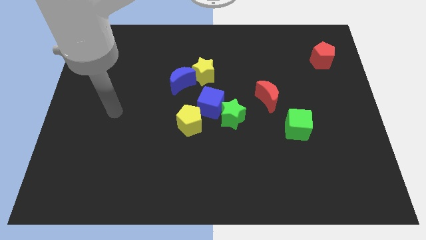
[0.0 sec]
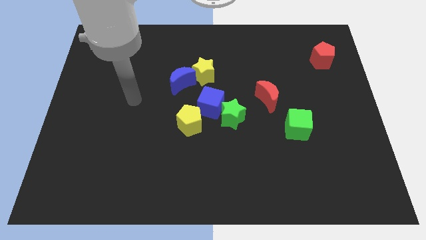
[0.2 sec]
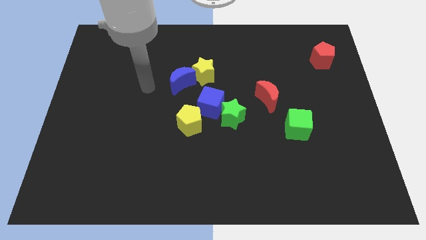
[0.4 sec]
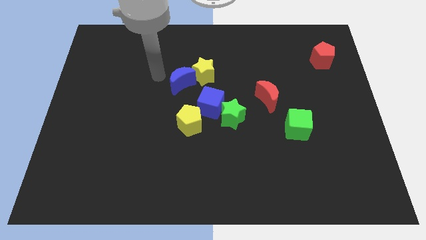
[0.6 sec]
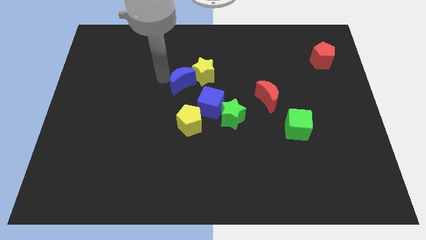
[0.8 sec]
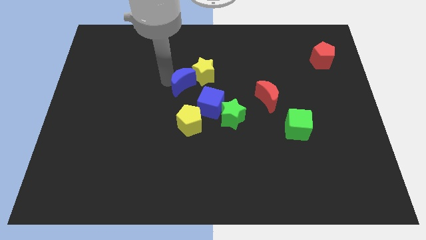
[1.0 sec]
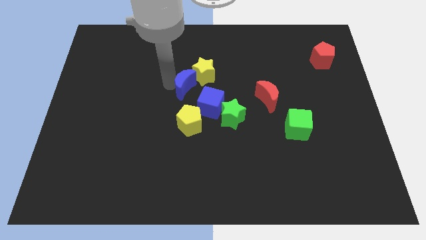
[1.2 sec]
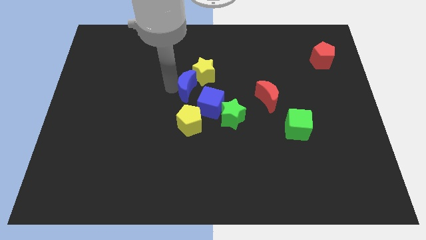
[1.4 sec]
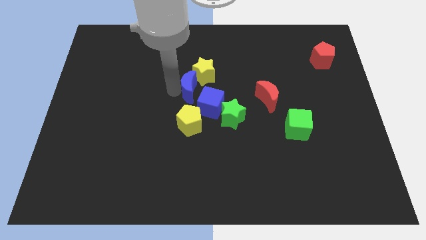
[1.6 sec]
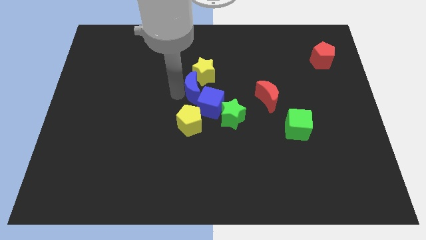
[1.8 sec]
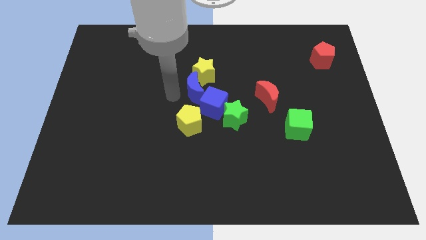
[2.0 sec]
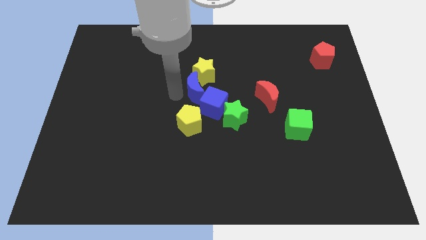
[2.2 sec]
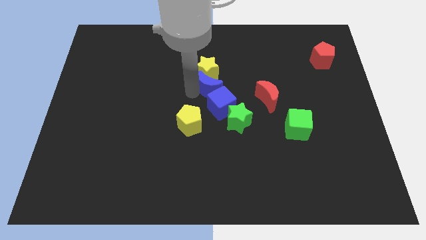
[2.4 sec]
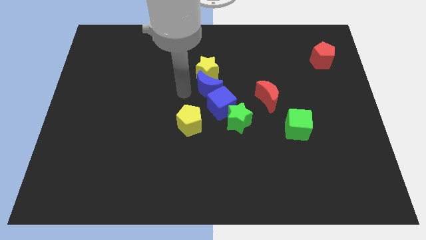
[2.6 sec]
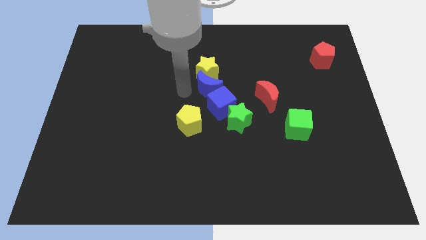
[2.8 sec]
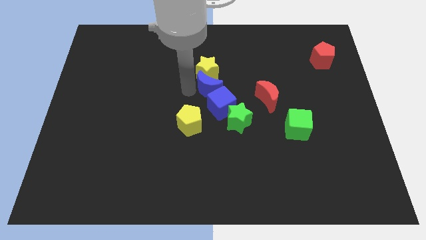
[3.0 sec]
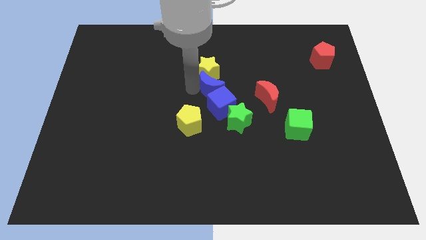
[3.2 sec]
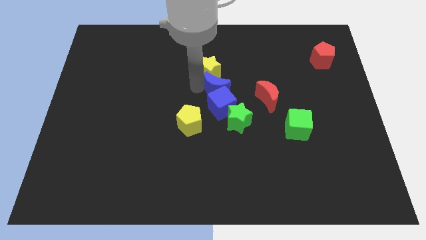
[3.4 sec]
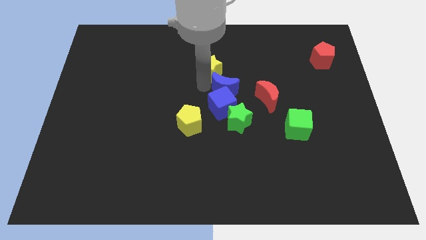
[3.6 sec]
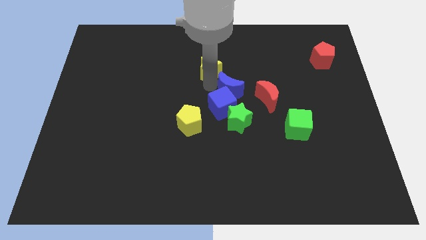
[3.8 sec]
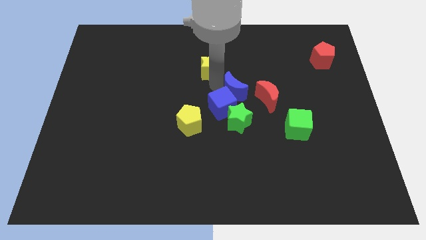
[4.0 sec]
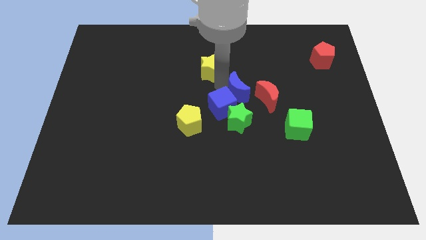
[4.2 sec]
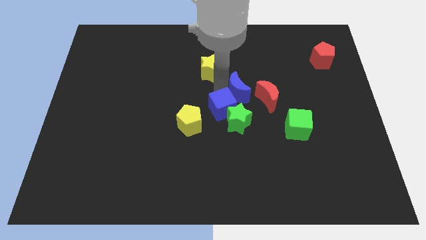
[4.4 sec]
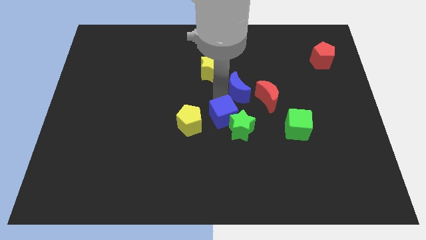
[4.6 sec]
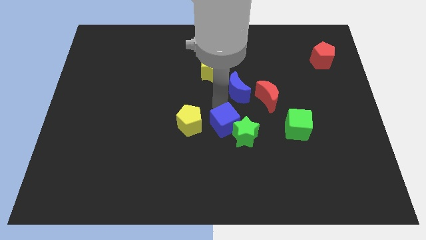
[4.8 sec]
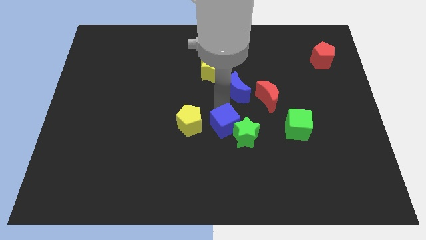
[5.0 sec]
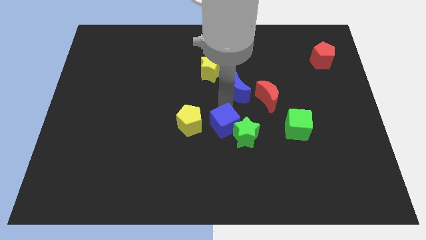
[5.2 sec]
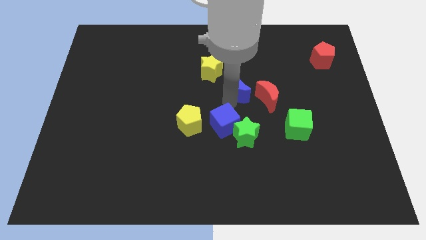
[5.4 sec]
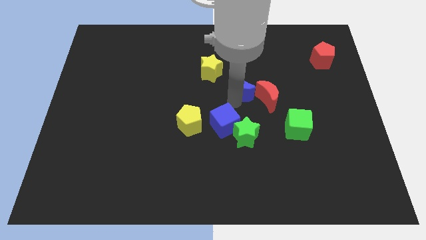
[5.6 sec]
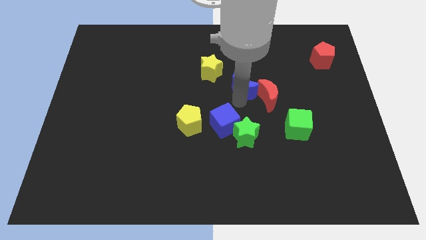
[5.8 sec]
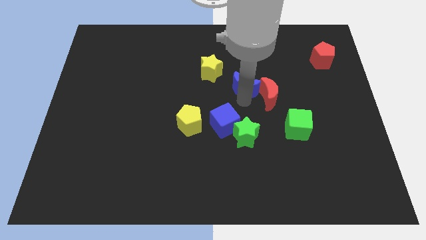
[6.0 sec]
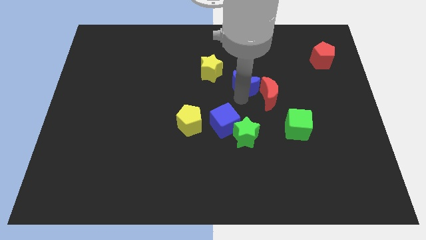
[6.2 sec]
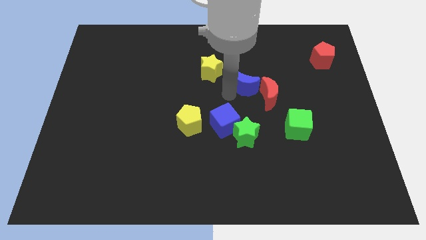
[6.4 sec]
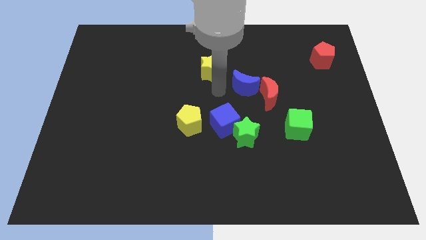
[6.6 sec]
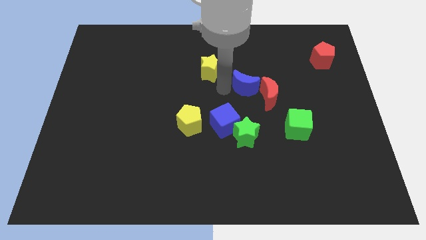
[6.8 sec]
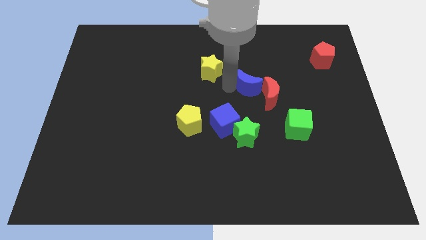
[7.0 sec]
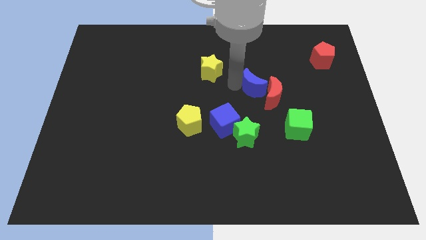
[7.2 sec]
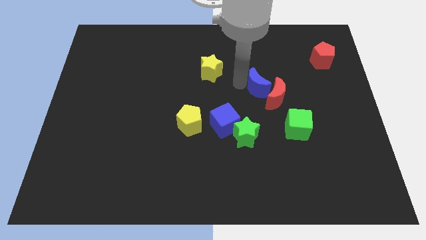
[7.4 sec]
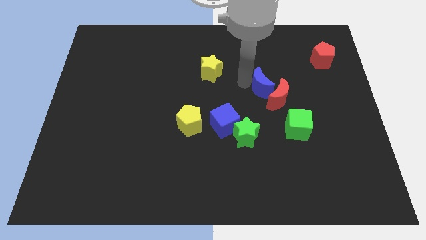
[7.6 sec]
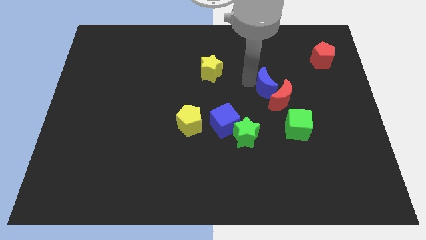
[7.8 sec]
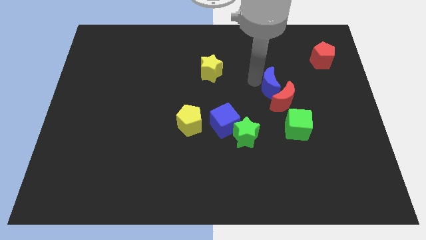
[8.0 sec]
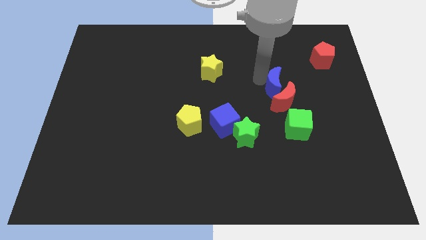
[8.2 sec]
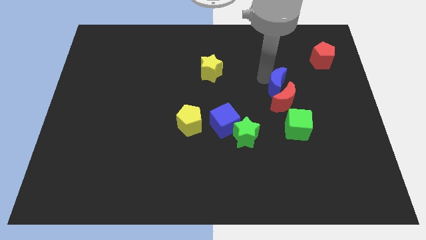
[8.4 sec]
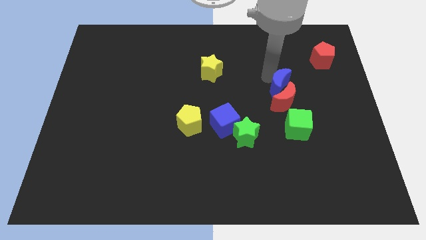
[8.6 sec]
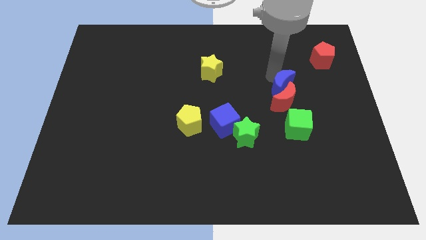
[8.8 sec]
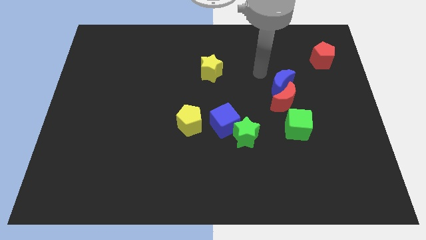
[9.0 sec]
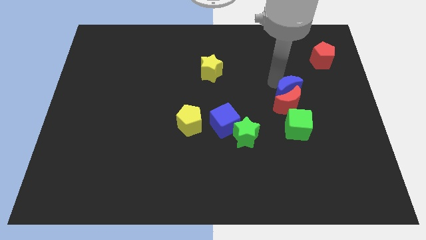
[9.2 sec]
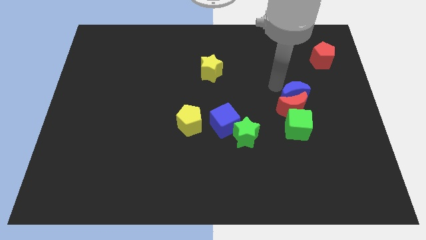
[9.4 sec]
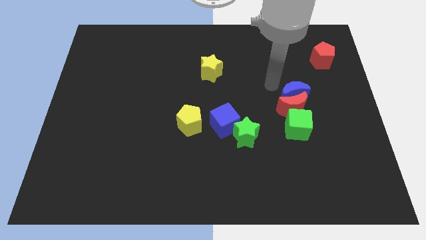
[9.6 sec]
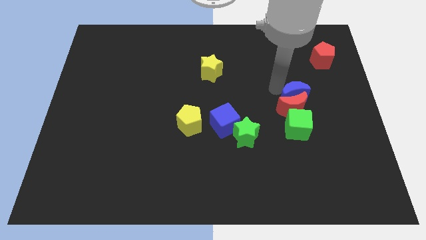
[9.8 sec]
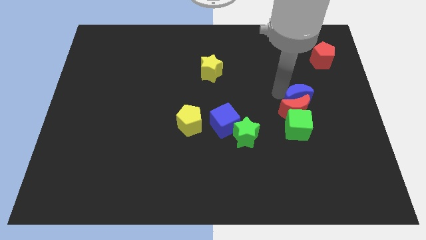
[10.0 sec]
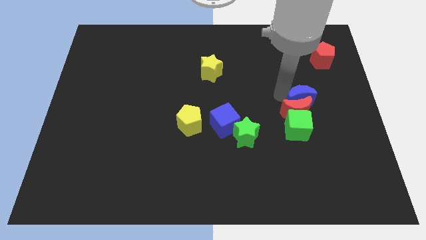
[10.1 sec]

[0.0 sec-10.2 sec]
put the blue moon to the top right of the green cube

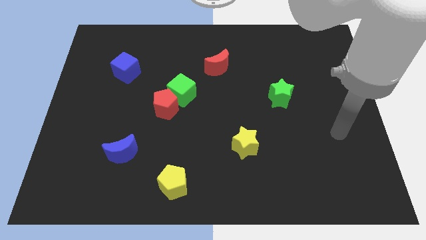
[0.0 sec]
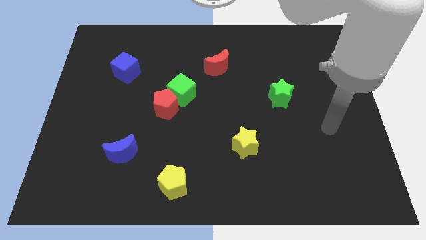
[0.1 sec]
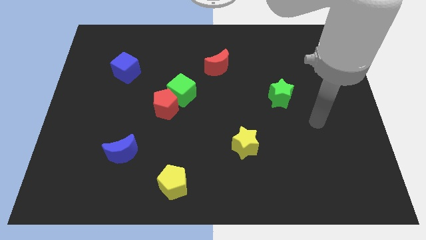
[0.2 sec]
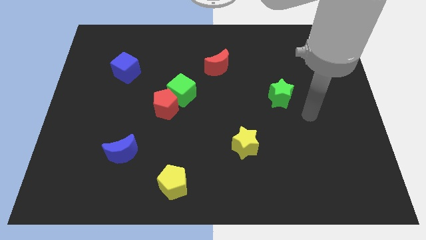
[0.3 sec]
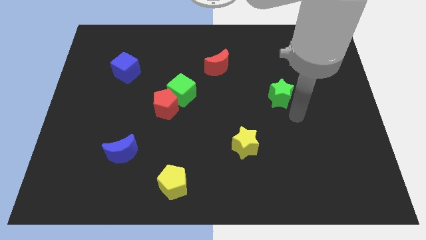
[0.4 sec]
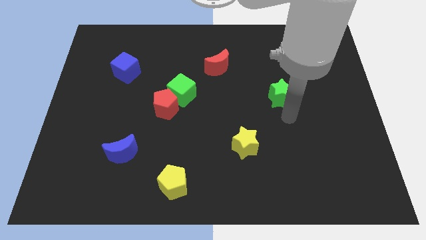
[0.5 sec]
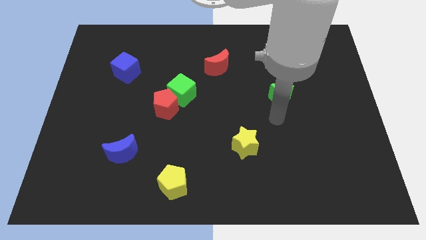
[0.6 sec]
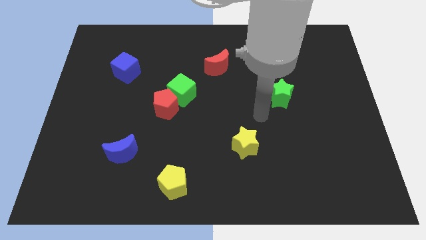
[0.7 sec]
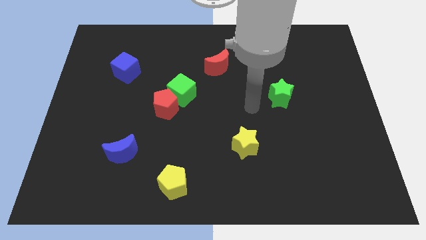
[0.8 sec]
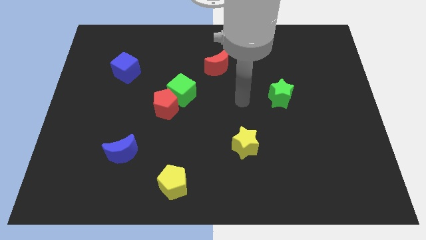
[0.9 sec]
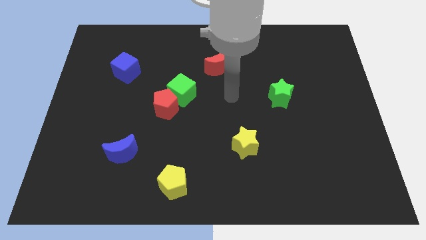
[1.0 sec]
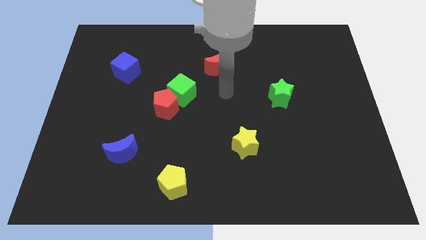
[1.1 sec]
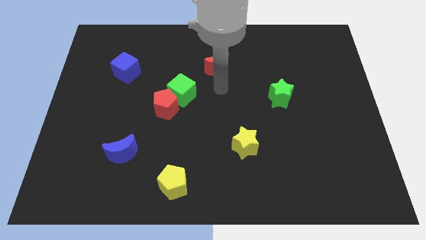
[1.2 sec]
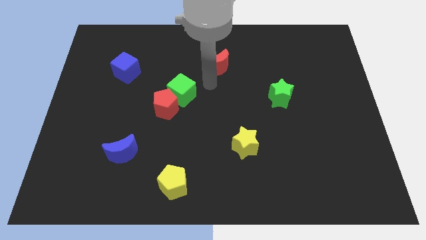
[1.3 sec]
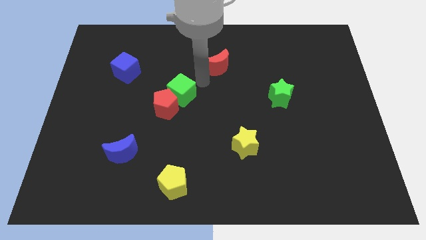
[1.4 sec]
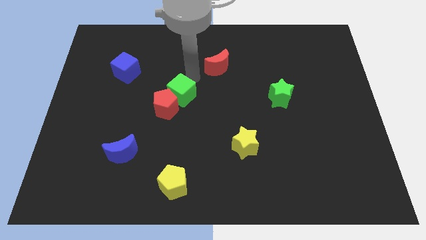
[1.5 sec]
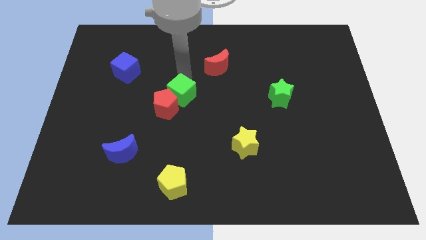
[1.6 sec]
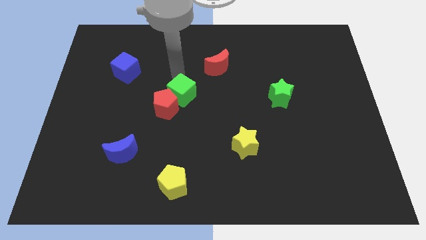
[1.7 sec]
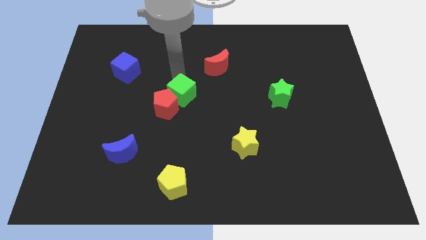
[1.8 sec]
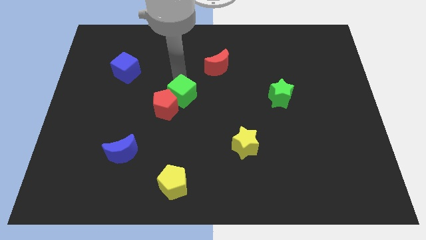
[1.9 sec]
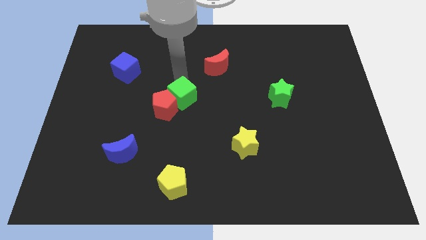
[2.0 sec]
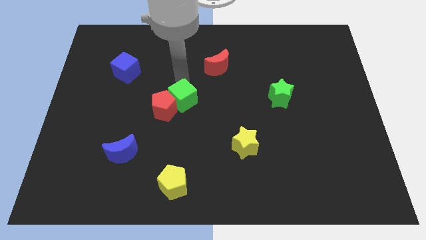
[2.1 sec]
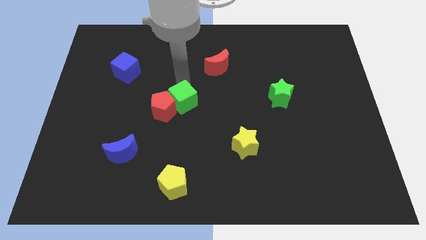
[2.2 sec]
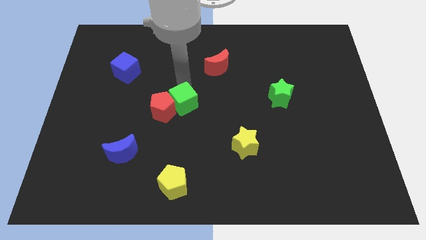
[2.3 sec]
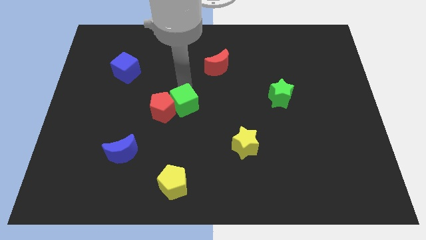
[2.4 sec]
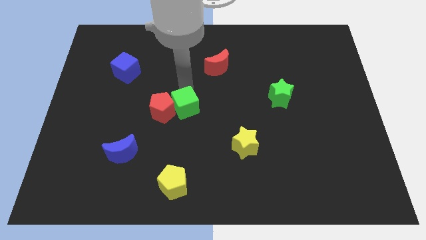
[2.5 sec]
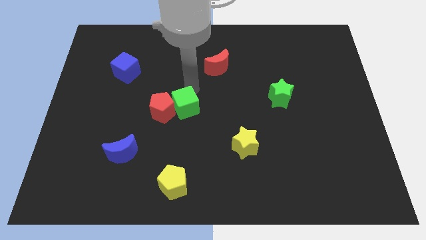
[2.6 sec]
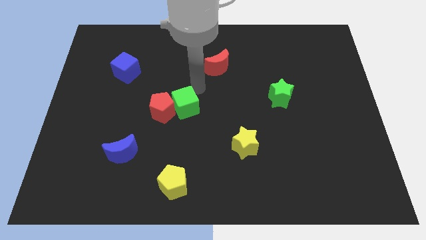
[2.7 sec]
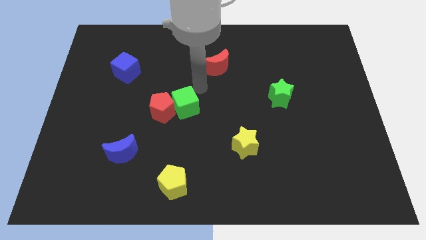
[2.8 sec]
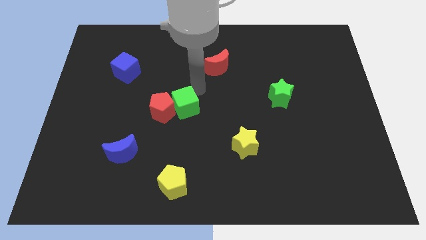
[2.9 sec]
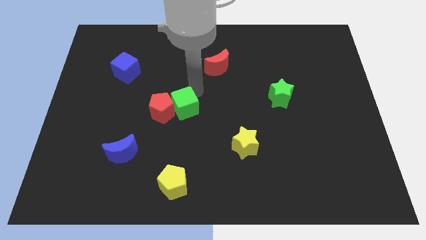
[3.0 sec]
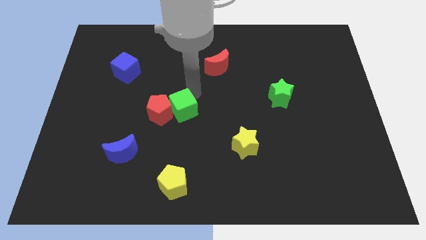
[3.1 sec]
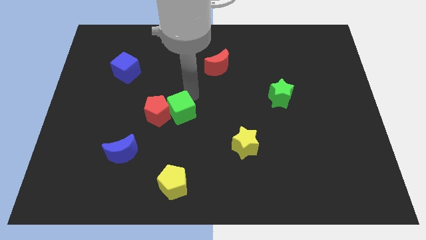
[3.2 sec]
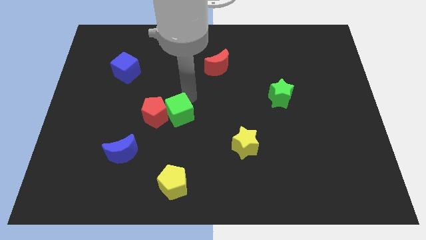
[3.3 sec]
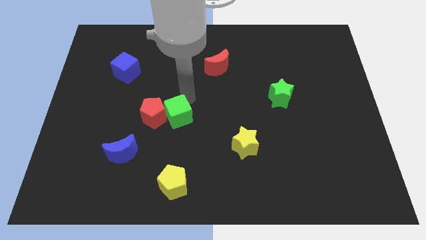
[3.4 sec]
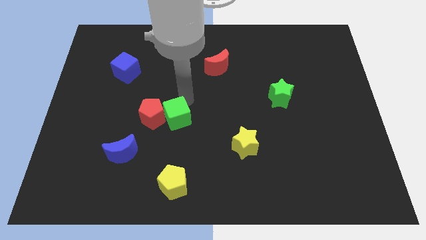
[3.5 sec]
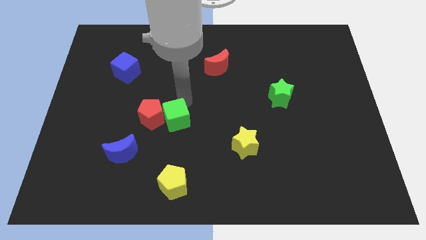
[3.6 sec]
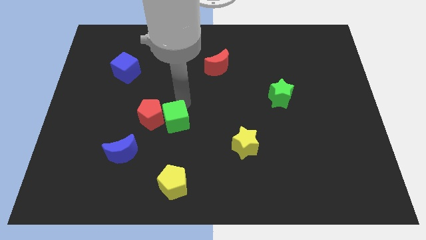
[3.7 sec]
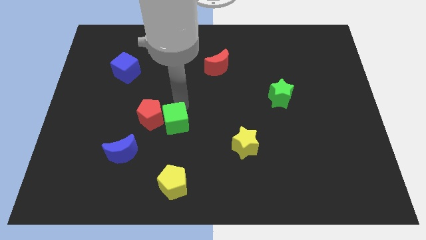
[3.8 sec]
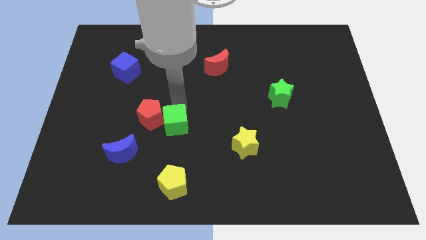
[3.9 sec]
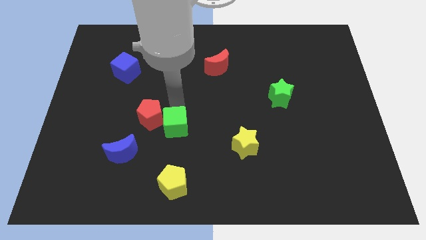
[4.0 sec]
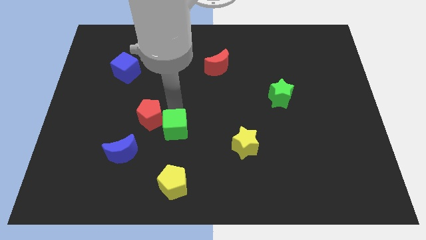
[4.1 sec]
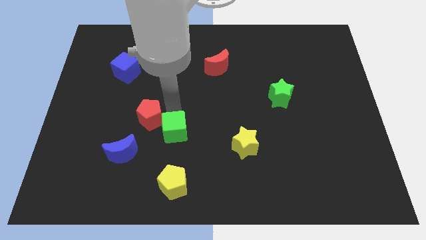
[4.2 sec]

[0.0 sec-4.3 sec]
move the green cube diagonally up and to the right of the blue moon
